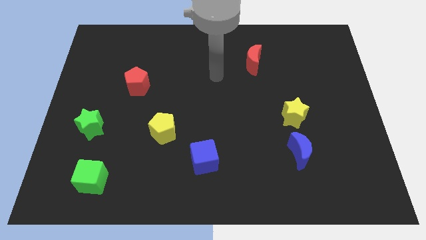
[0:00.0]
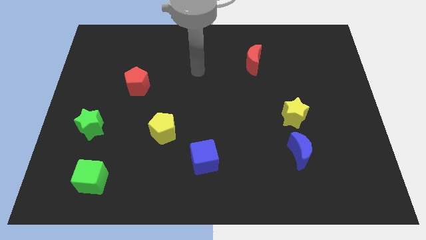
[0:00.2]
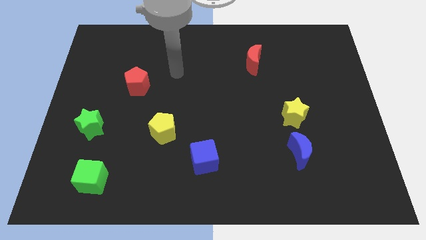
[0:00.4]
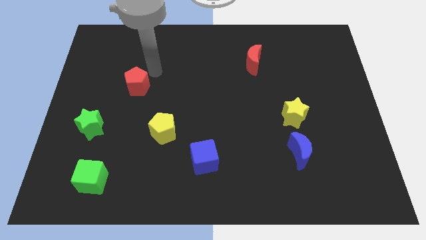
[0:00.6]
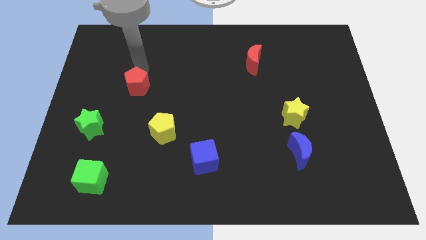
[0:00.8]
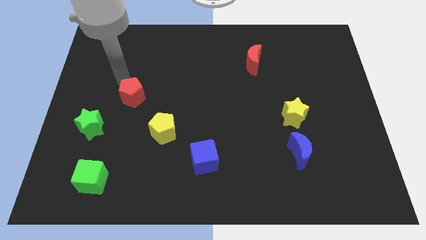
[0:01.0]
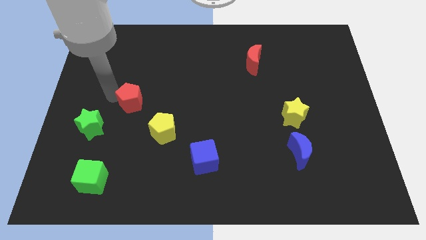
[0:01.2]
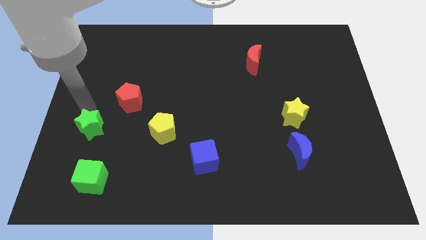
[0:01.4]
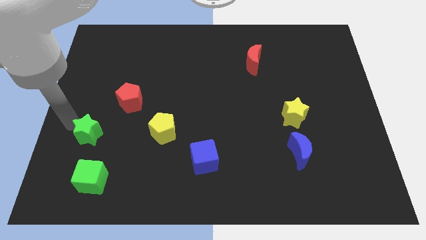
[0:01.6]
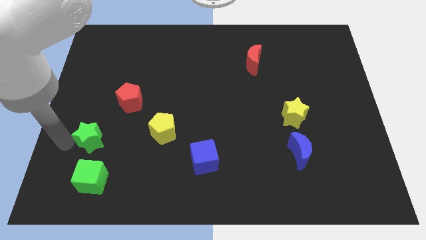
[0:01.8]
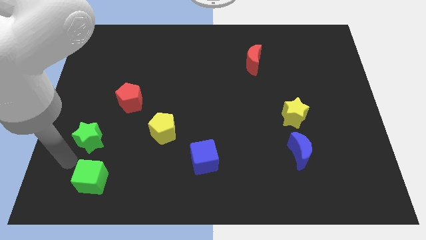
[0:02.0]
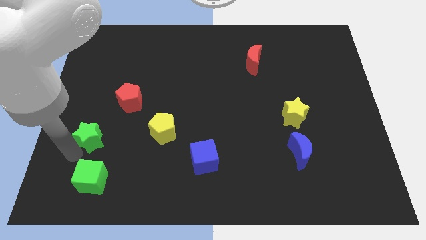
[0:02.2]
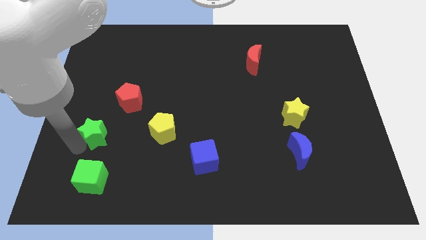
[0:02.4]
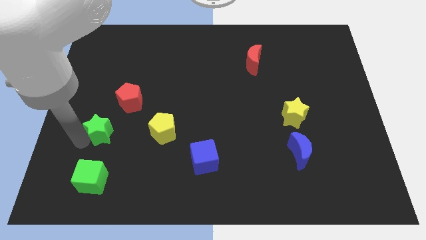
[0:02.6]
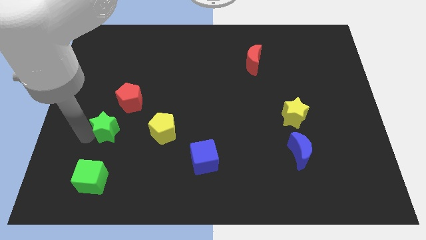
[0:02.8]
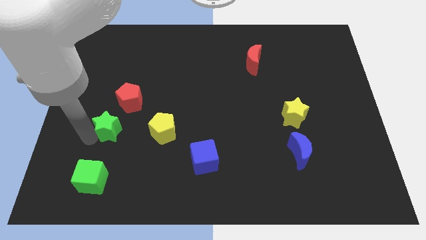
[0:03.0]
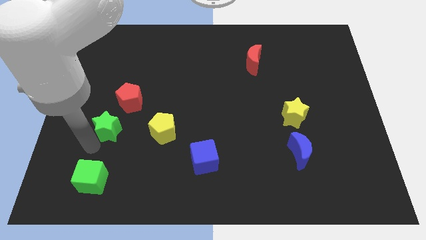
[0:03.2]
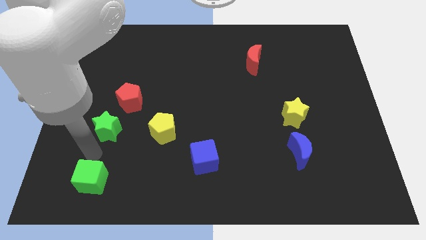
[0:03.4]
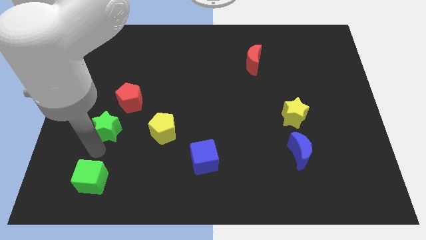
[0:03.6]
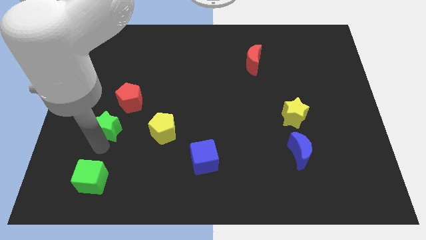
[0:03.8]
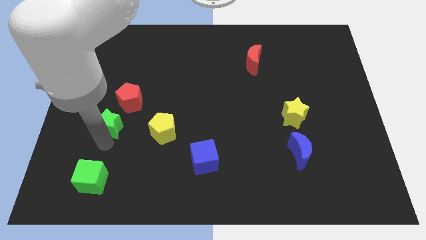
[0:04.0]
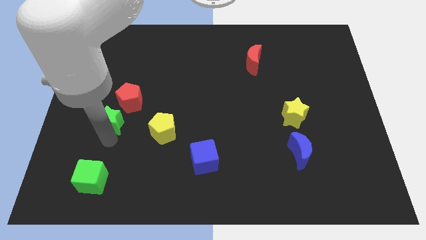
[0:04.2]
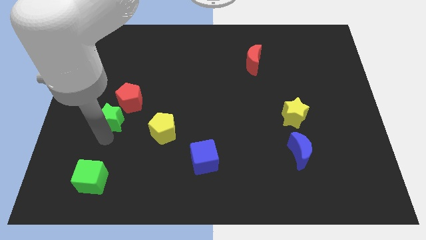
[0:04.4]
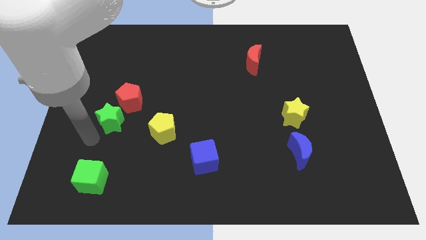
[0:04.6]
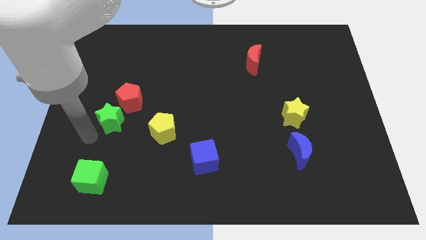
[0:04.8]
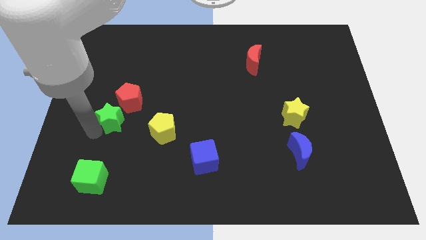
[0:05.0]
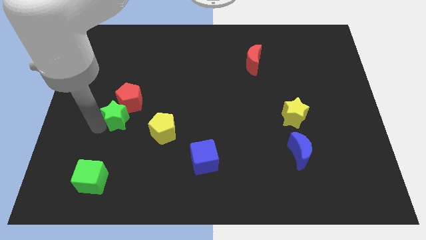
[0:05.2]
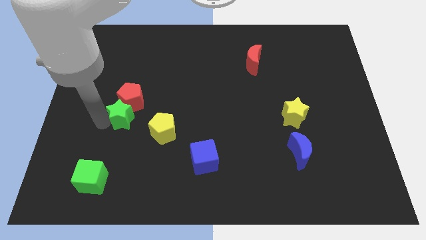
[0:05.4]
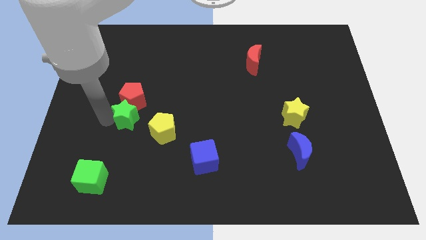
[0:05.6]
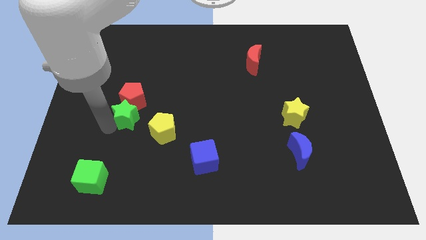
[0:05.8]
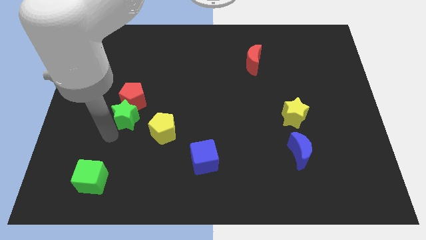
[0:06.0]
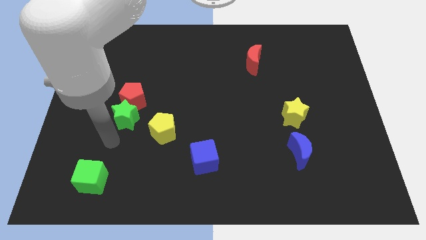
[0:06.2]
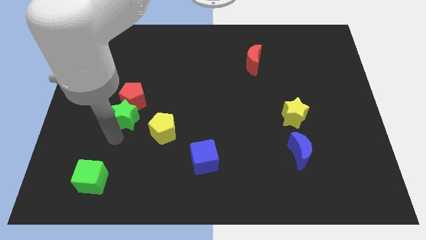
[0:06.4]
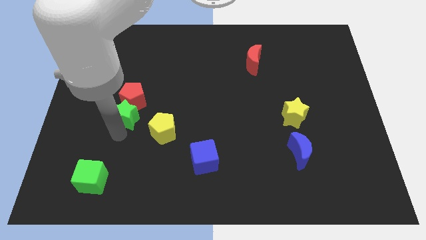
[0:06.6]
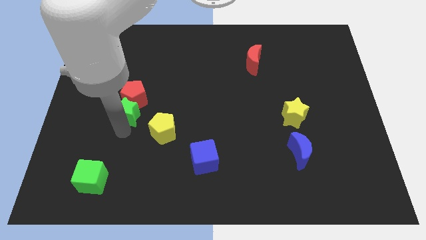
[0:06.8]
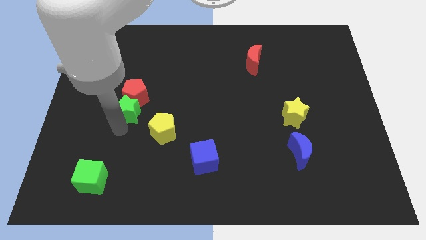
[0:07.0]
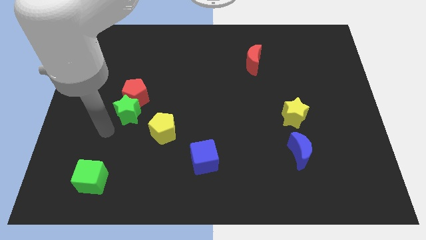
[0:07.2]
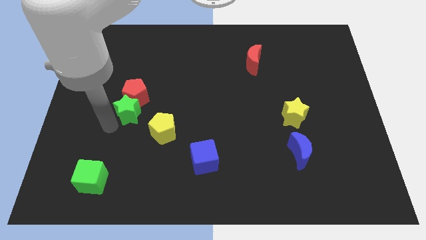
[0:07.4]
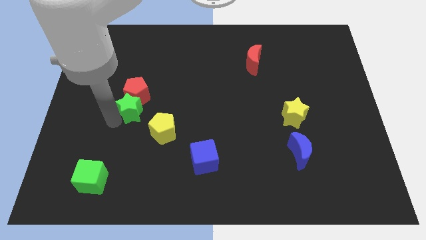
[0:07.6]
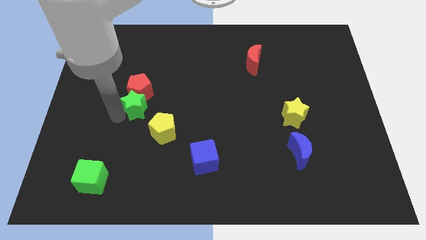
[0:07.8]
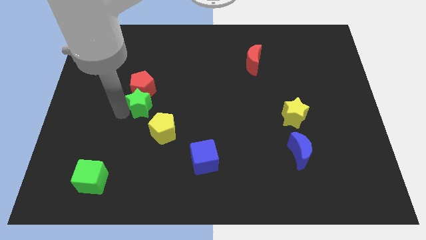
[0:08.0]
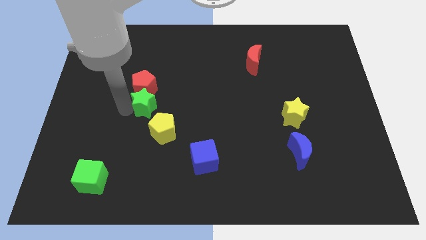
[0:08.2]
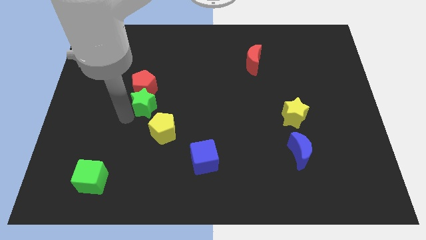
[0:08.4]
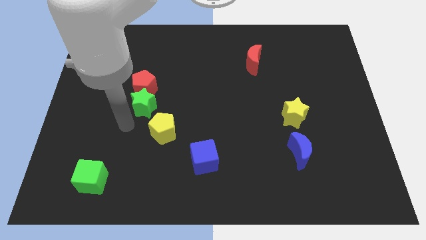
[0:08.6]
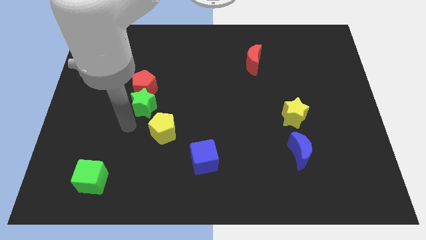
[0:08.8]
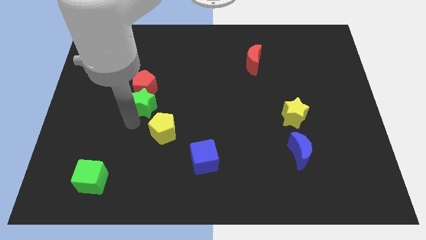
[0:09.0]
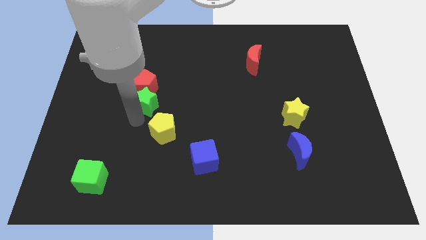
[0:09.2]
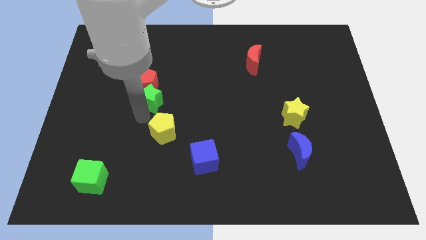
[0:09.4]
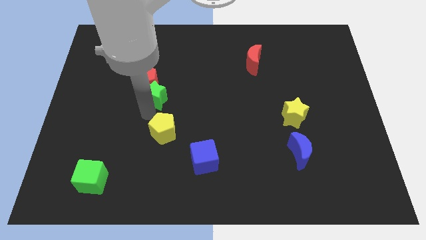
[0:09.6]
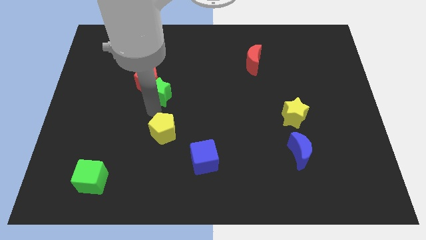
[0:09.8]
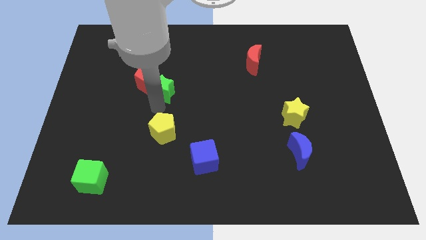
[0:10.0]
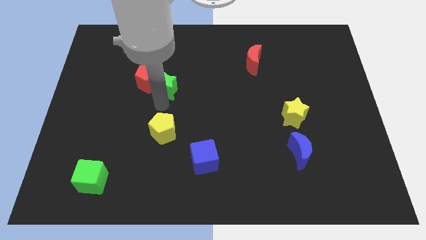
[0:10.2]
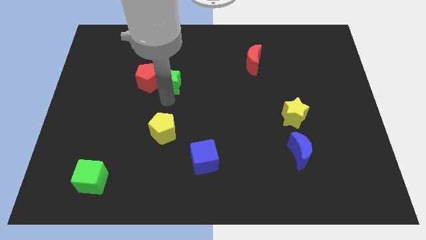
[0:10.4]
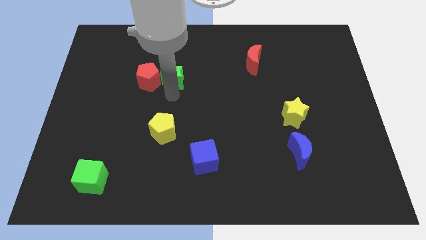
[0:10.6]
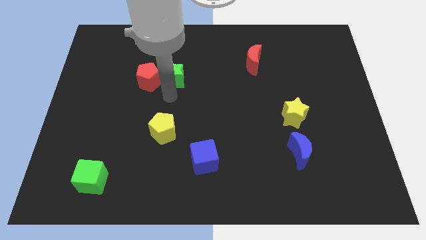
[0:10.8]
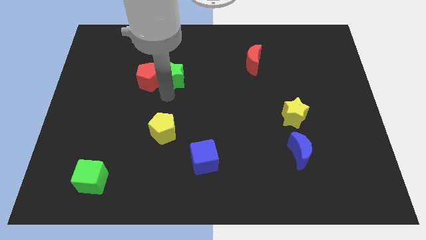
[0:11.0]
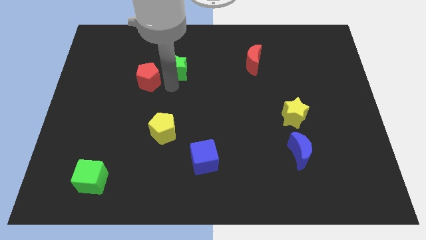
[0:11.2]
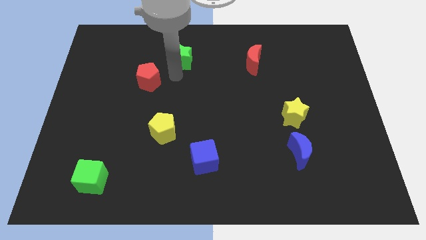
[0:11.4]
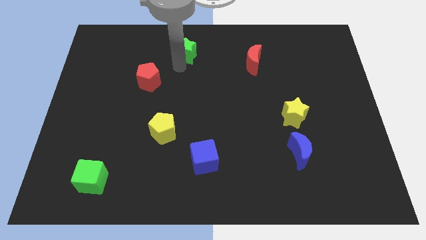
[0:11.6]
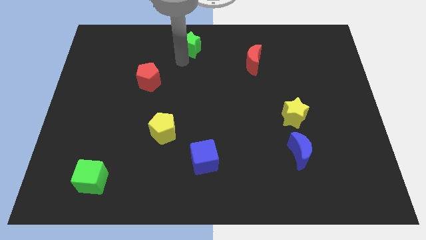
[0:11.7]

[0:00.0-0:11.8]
put the green star to the towards your base
